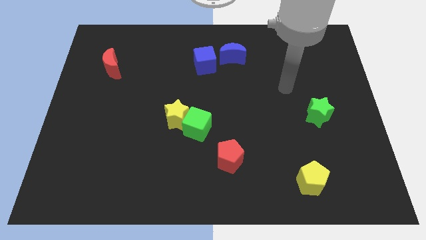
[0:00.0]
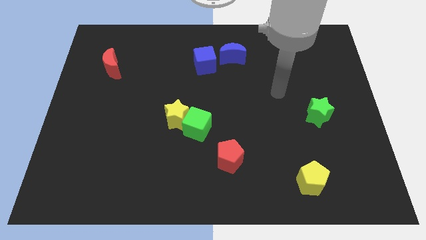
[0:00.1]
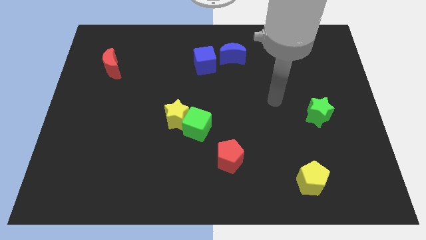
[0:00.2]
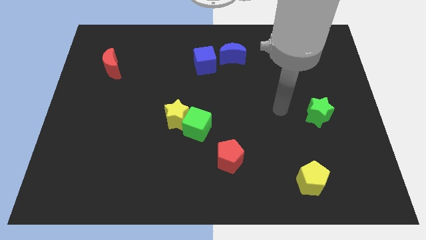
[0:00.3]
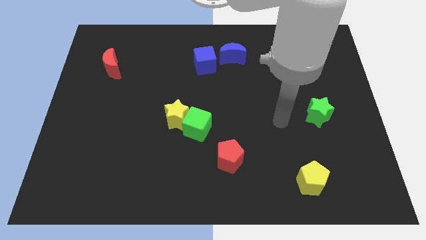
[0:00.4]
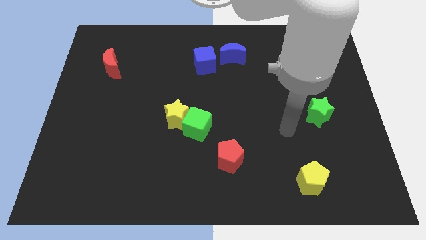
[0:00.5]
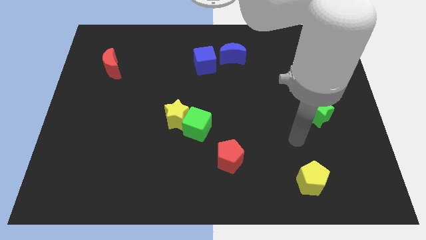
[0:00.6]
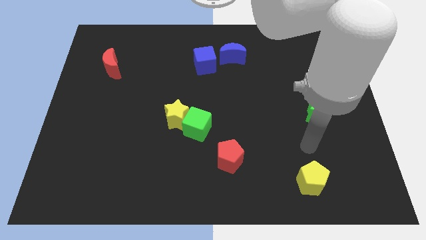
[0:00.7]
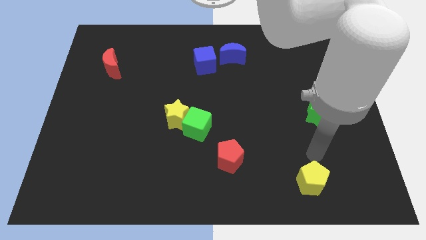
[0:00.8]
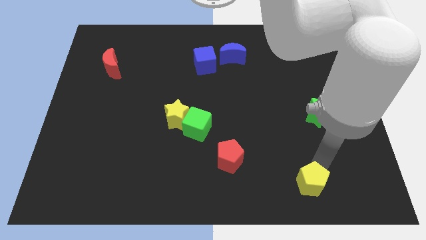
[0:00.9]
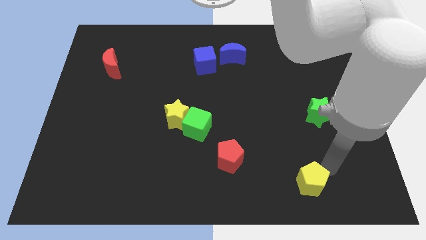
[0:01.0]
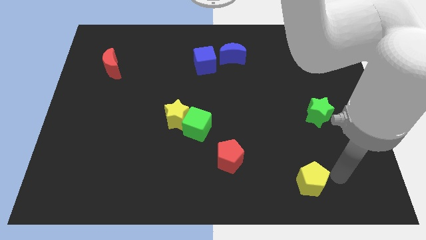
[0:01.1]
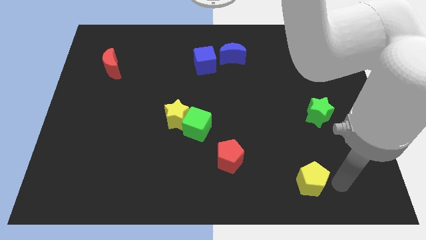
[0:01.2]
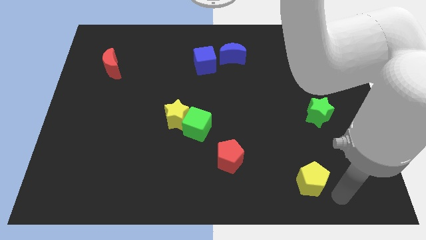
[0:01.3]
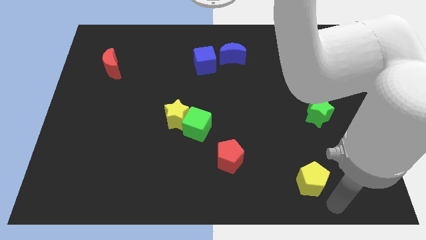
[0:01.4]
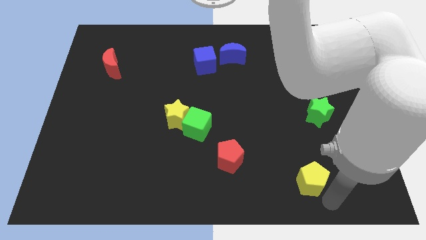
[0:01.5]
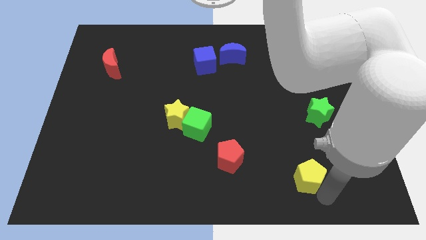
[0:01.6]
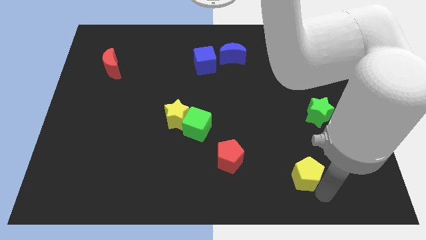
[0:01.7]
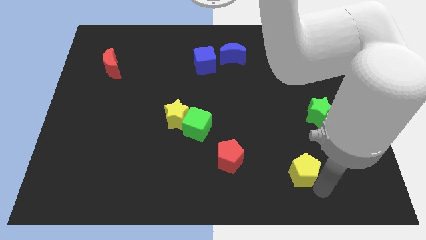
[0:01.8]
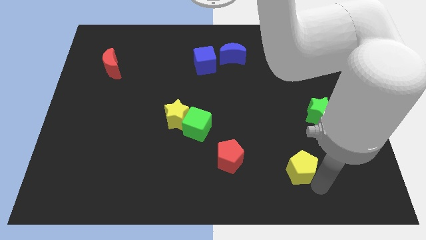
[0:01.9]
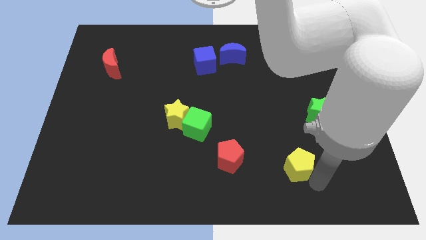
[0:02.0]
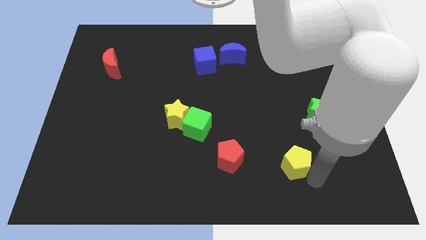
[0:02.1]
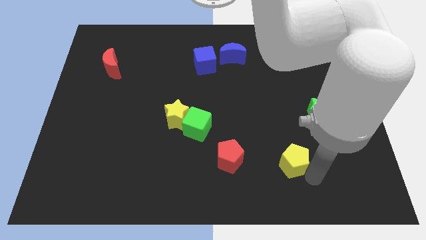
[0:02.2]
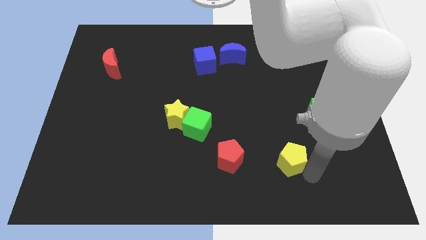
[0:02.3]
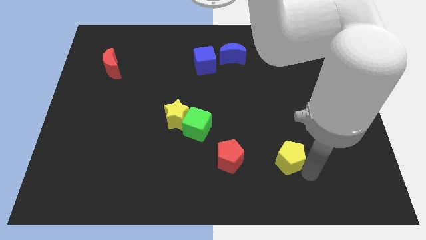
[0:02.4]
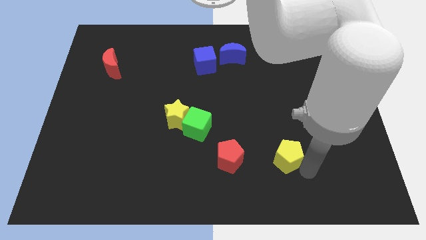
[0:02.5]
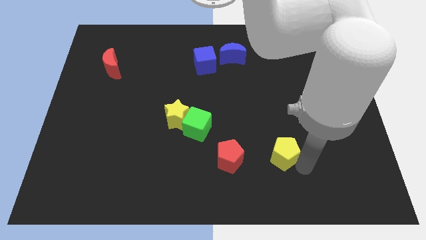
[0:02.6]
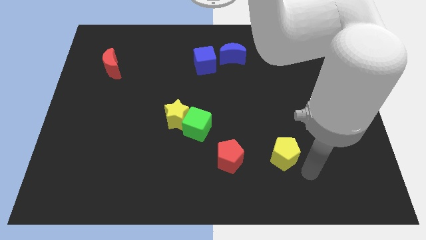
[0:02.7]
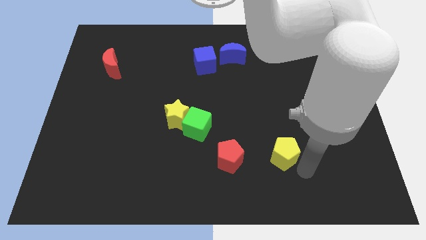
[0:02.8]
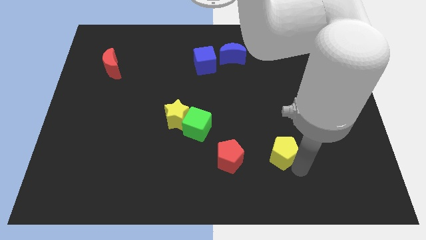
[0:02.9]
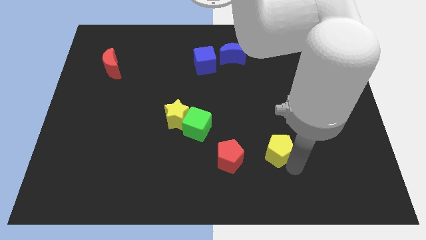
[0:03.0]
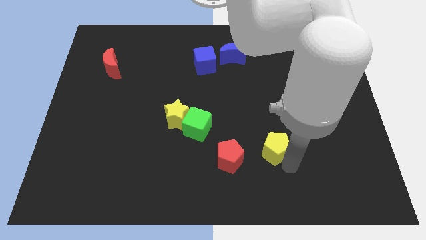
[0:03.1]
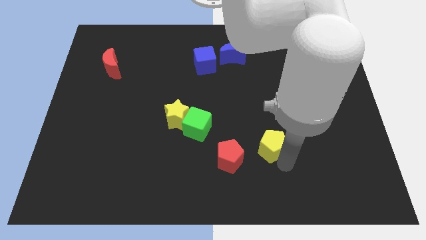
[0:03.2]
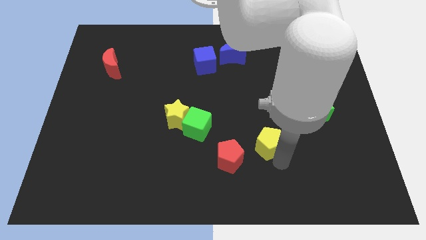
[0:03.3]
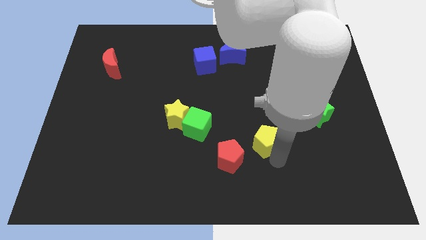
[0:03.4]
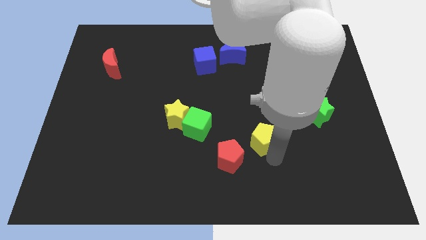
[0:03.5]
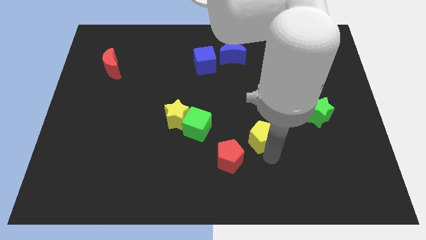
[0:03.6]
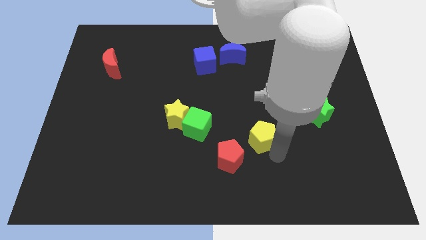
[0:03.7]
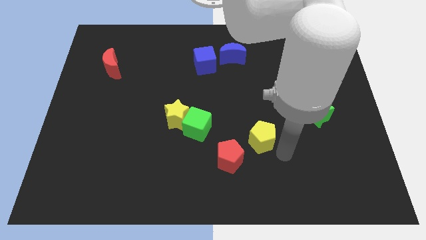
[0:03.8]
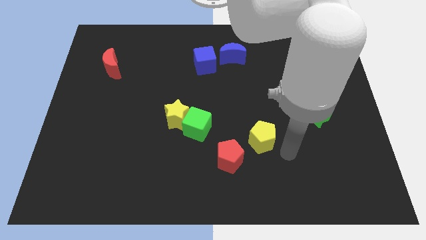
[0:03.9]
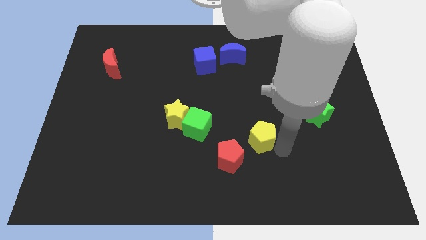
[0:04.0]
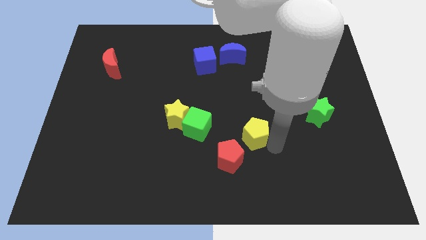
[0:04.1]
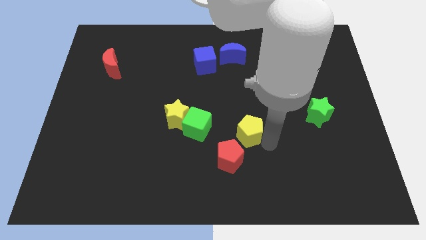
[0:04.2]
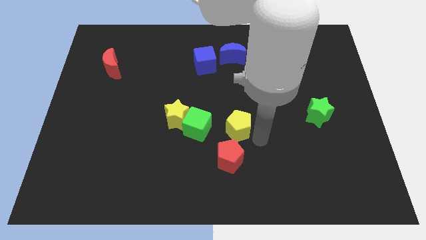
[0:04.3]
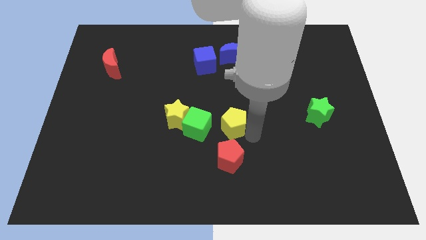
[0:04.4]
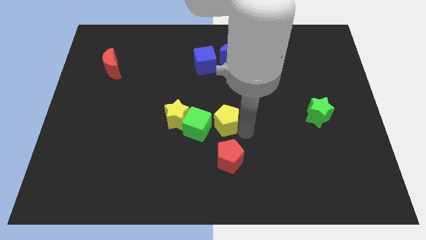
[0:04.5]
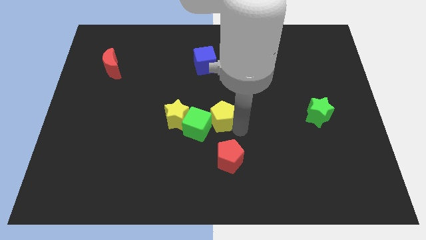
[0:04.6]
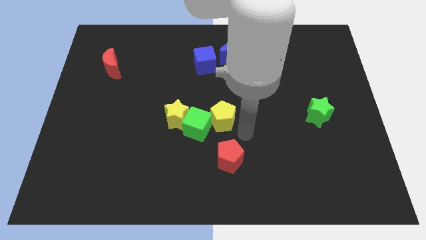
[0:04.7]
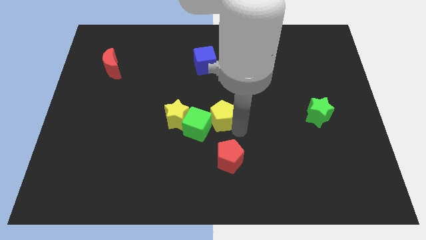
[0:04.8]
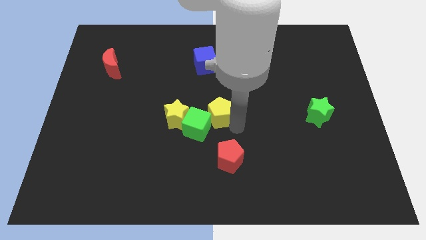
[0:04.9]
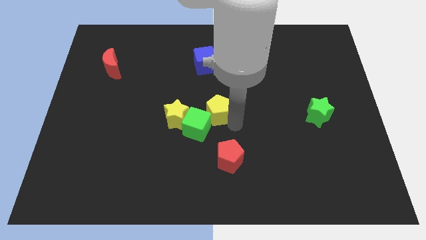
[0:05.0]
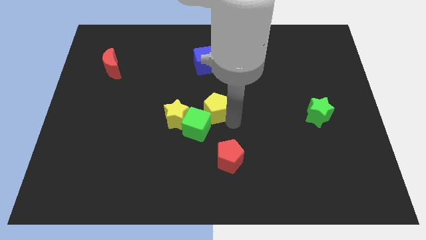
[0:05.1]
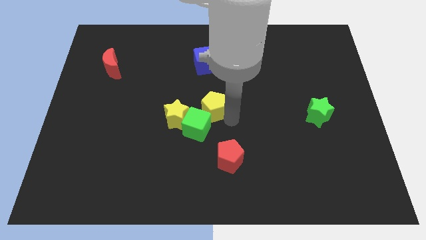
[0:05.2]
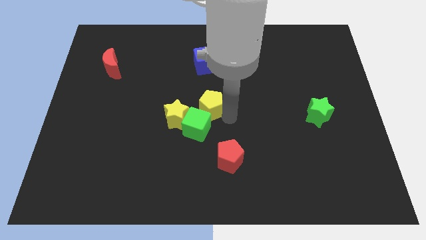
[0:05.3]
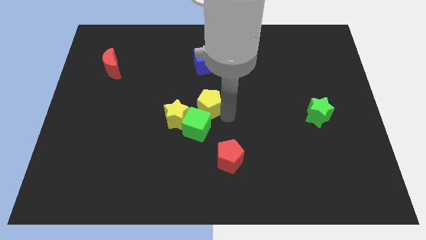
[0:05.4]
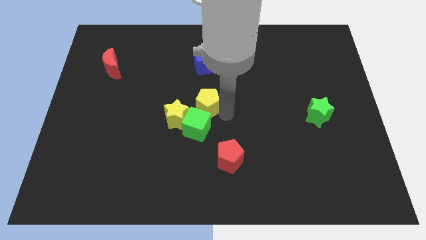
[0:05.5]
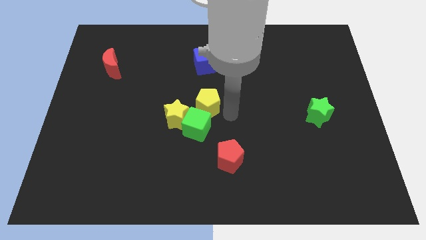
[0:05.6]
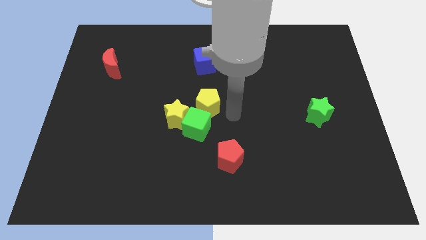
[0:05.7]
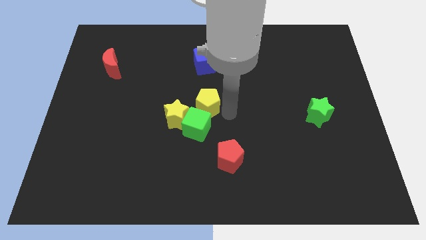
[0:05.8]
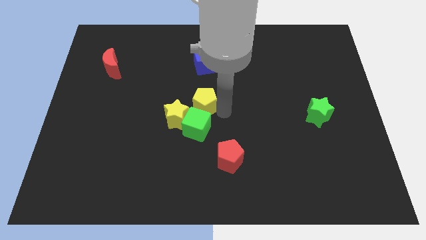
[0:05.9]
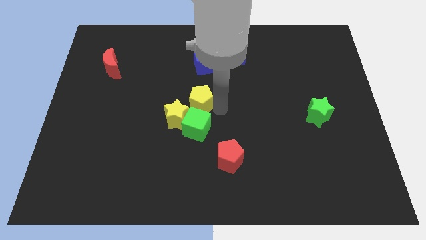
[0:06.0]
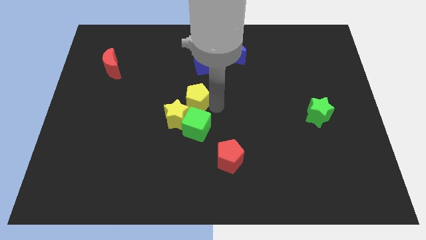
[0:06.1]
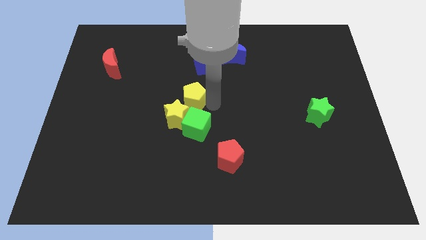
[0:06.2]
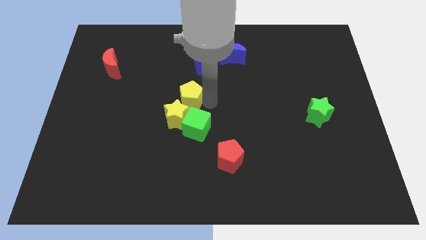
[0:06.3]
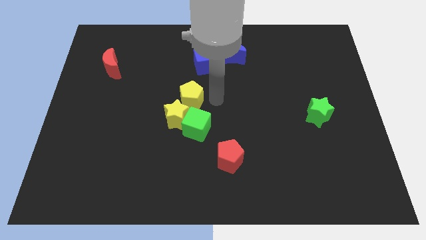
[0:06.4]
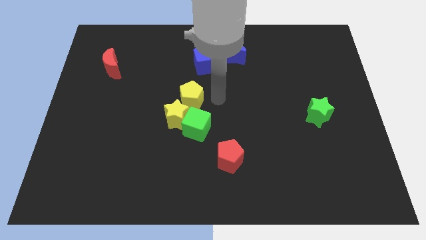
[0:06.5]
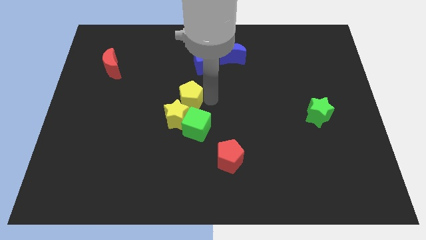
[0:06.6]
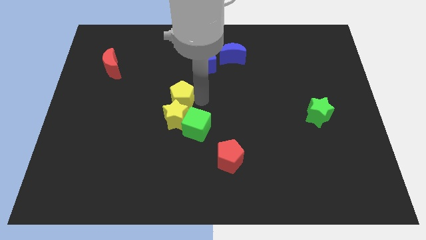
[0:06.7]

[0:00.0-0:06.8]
slide the yellow pentagon to the top left side of the yellow star
